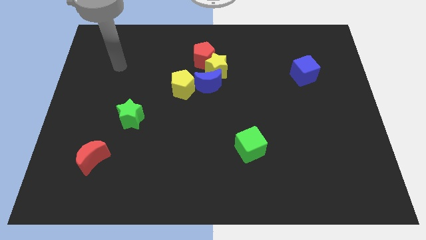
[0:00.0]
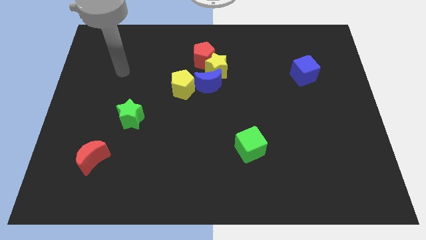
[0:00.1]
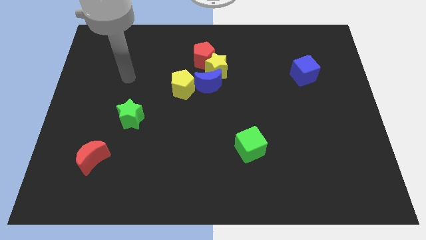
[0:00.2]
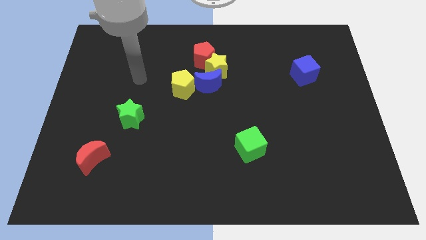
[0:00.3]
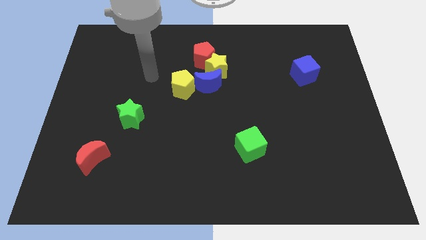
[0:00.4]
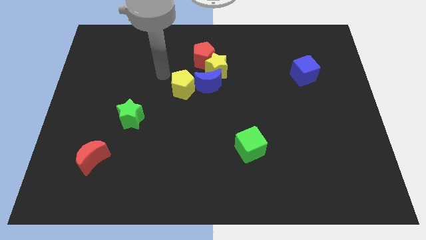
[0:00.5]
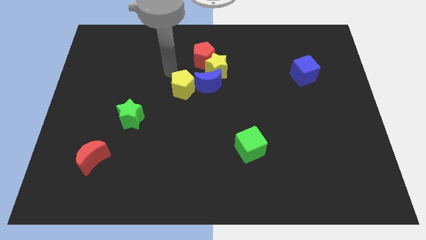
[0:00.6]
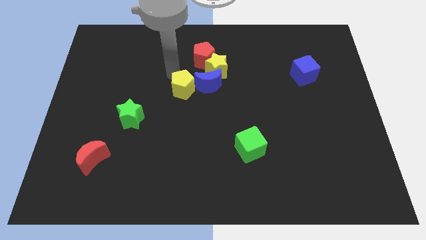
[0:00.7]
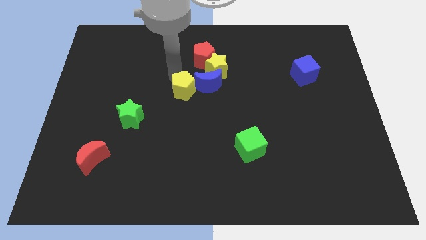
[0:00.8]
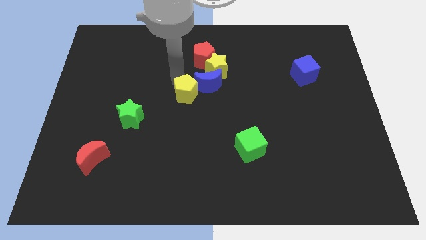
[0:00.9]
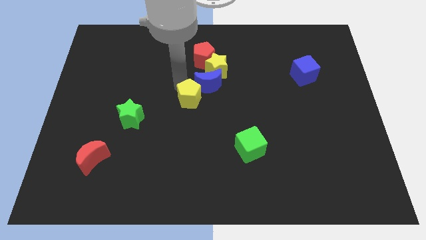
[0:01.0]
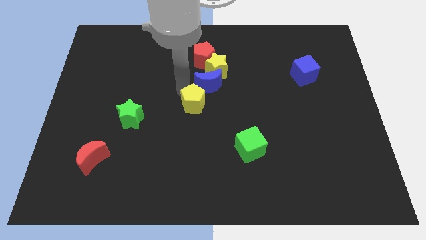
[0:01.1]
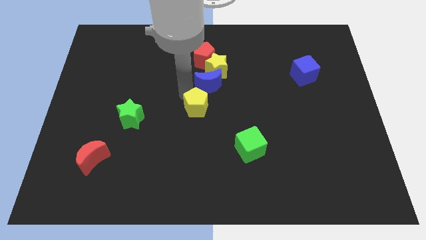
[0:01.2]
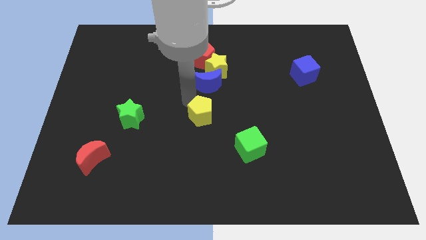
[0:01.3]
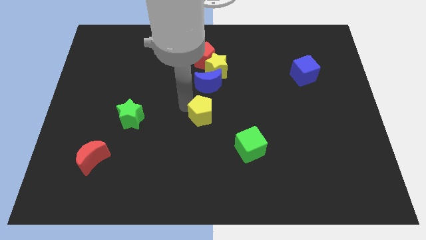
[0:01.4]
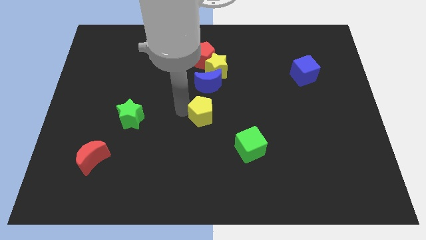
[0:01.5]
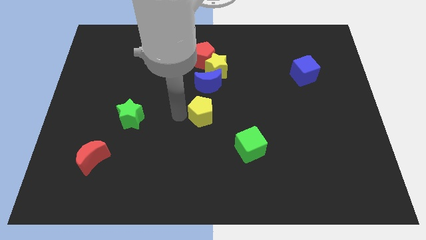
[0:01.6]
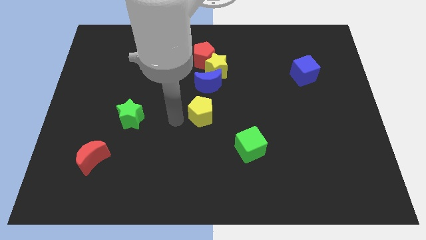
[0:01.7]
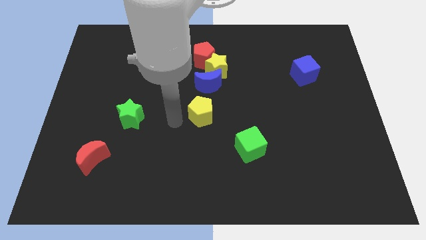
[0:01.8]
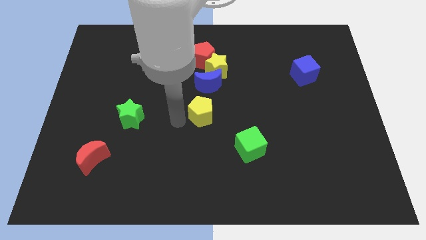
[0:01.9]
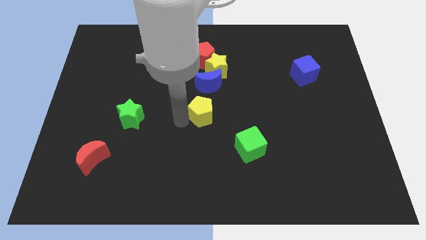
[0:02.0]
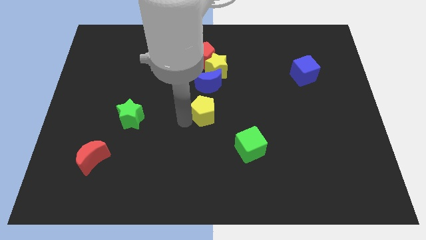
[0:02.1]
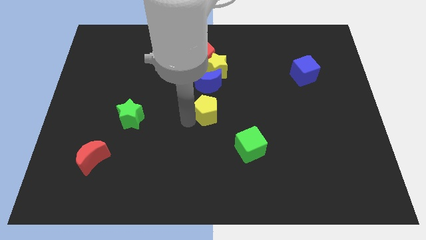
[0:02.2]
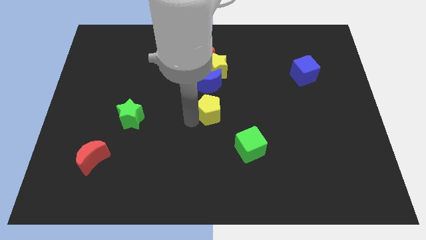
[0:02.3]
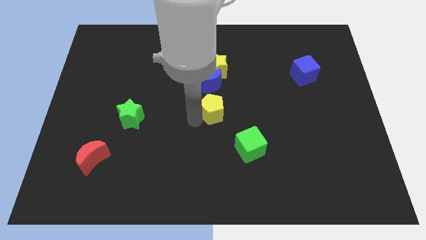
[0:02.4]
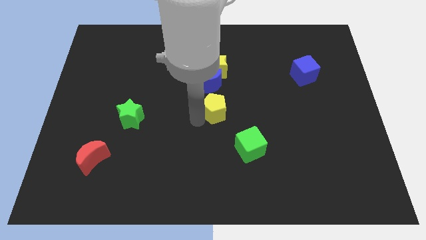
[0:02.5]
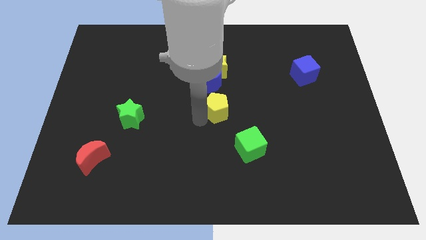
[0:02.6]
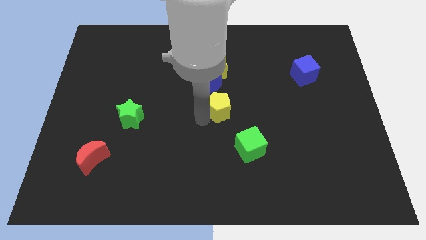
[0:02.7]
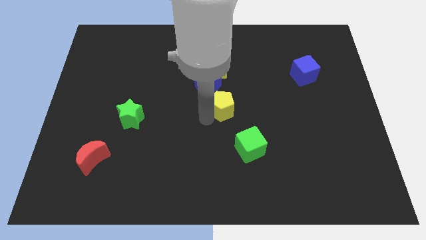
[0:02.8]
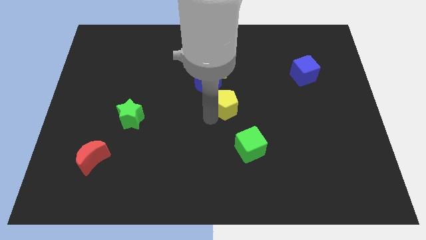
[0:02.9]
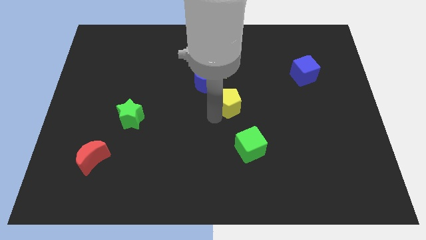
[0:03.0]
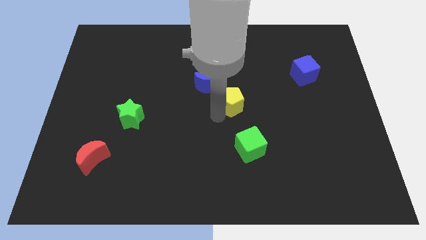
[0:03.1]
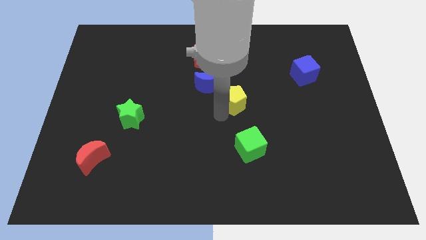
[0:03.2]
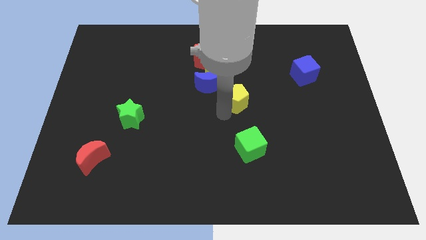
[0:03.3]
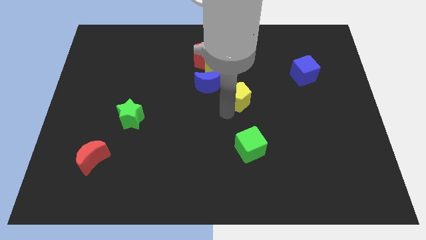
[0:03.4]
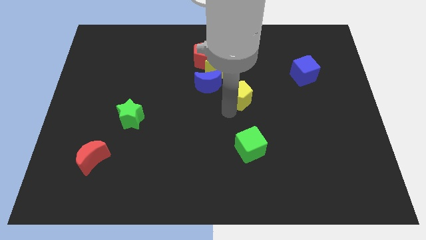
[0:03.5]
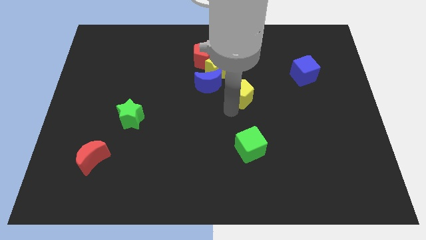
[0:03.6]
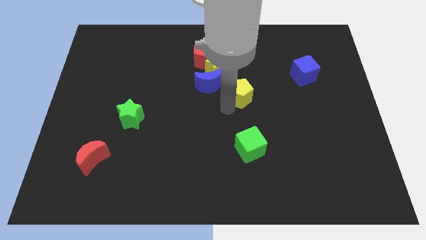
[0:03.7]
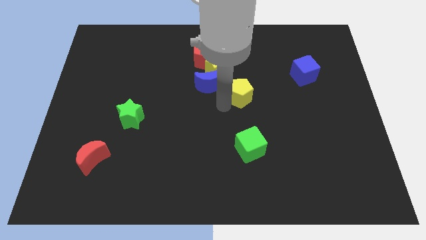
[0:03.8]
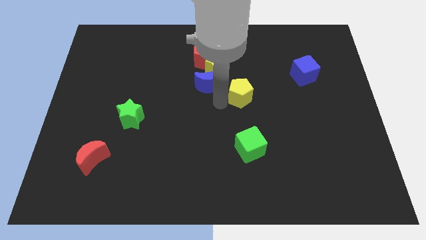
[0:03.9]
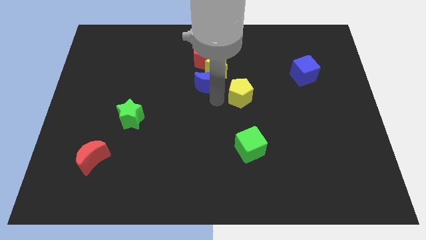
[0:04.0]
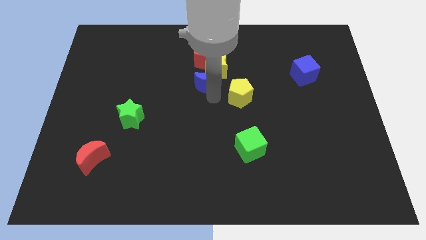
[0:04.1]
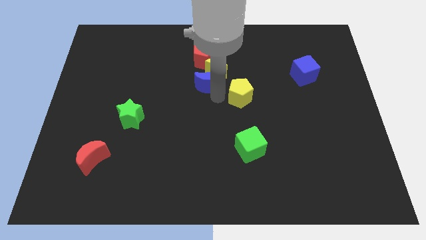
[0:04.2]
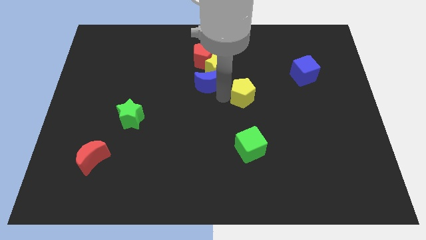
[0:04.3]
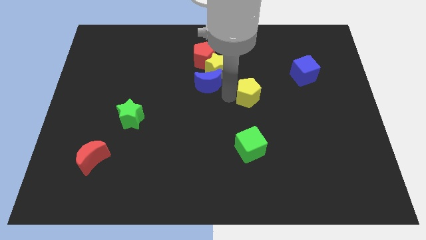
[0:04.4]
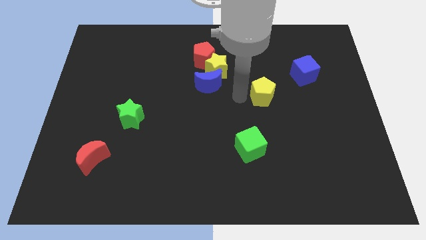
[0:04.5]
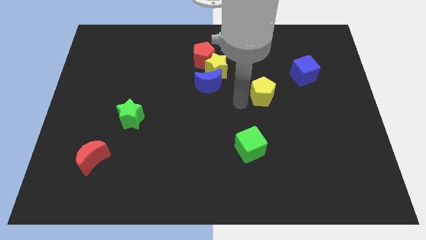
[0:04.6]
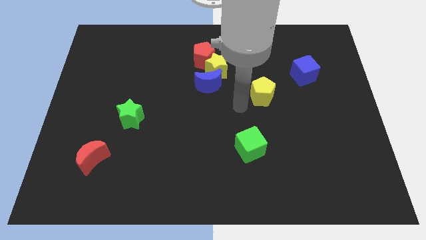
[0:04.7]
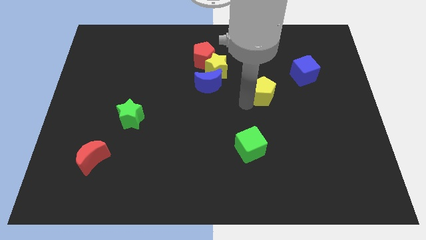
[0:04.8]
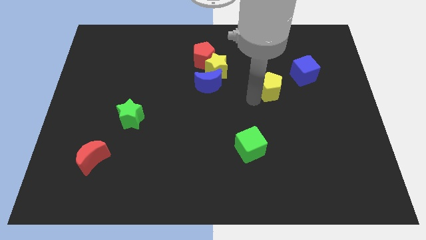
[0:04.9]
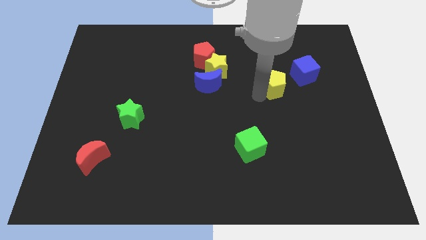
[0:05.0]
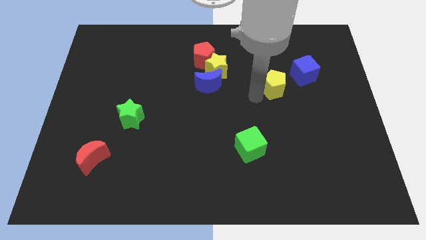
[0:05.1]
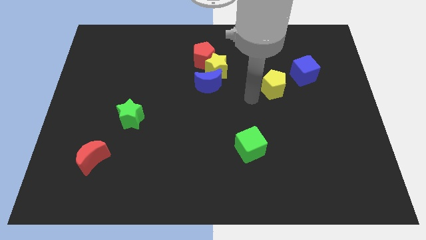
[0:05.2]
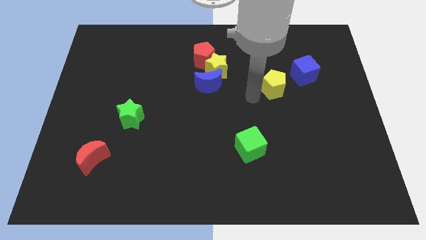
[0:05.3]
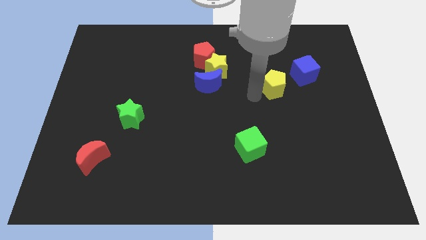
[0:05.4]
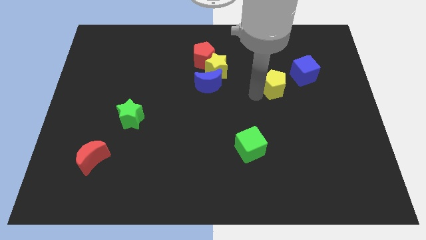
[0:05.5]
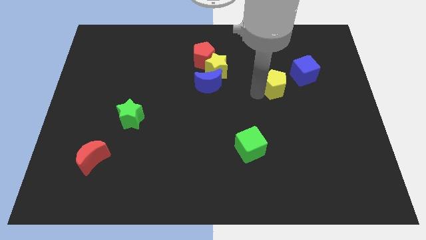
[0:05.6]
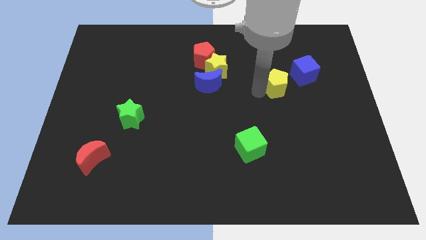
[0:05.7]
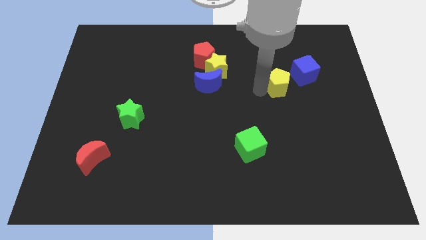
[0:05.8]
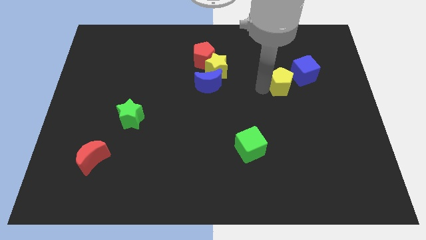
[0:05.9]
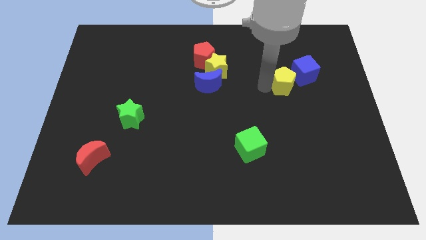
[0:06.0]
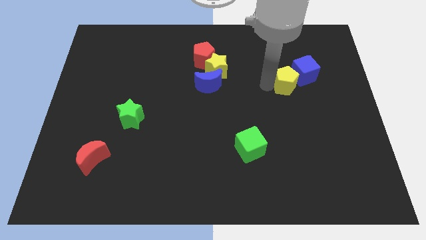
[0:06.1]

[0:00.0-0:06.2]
move the yellow pentagon next to the blue cube

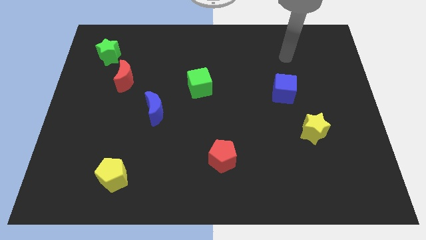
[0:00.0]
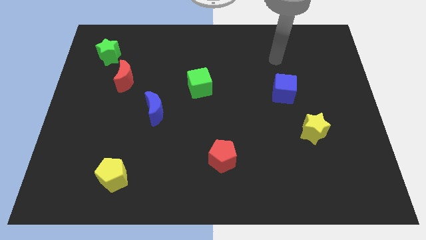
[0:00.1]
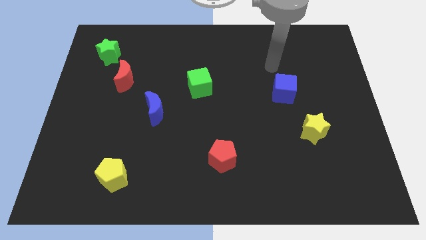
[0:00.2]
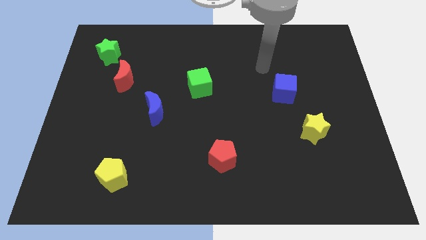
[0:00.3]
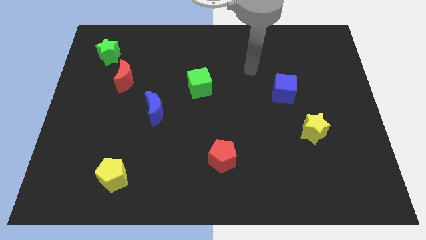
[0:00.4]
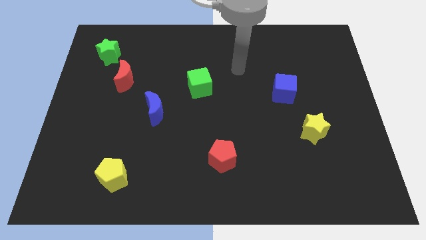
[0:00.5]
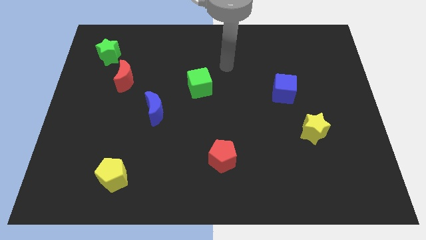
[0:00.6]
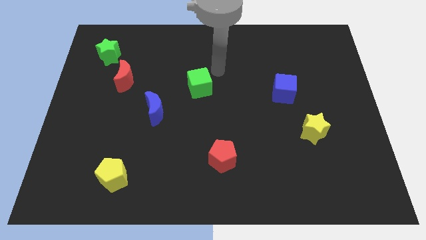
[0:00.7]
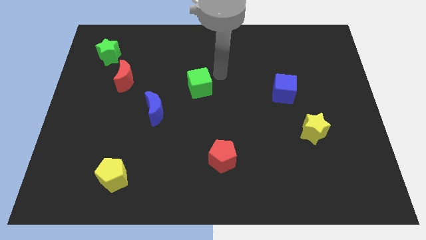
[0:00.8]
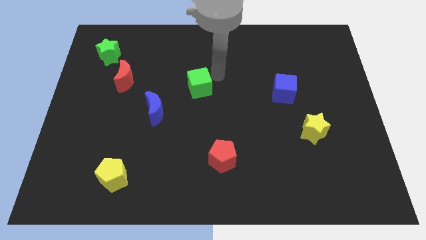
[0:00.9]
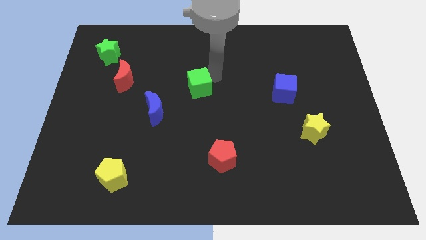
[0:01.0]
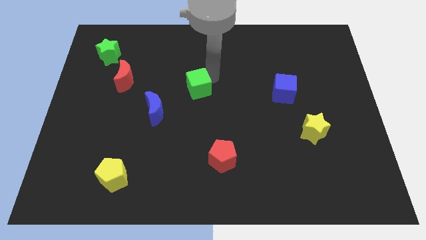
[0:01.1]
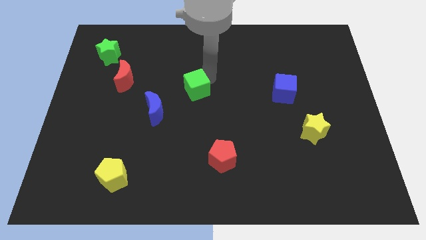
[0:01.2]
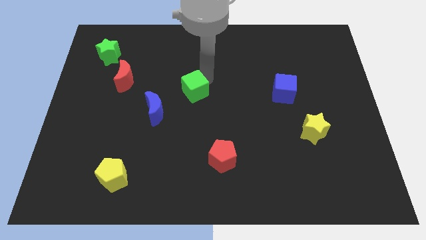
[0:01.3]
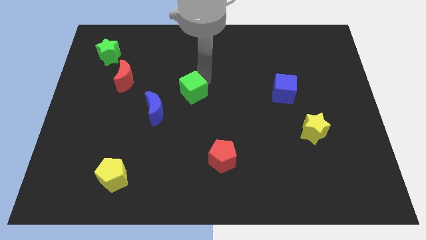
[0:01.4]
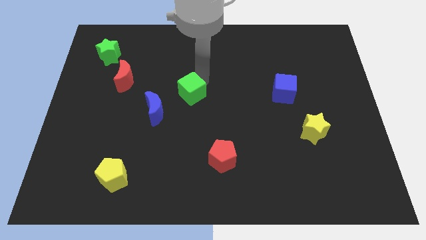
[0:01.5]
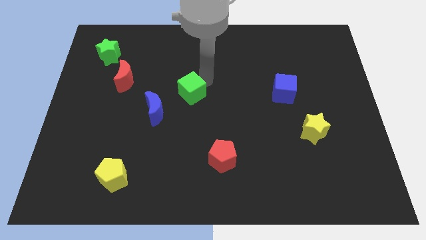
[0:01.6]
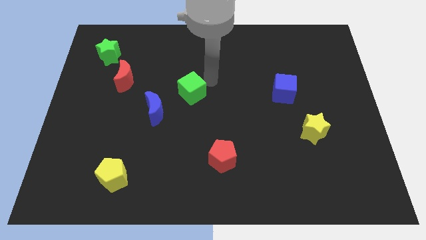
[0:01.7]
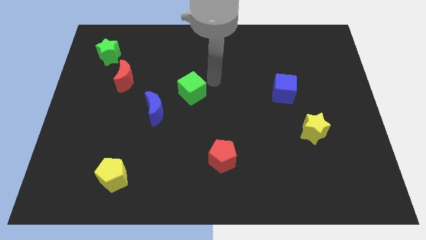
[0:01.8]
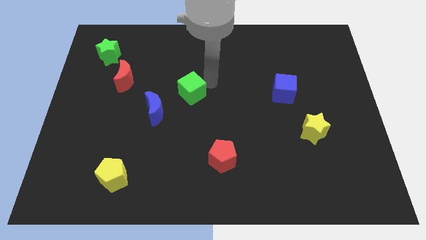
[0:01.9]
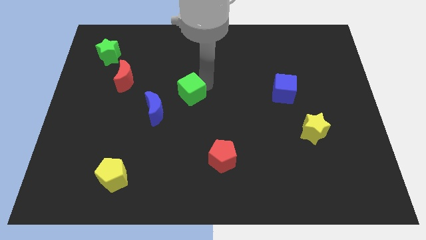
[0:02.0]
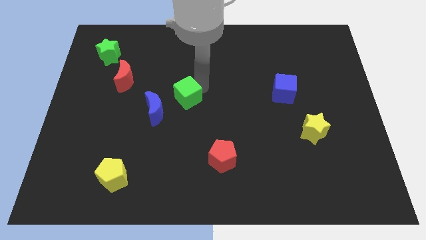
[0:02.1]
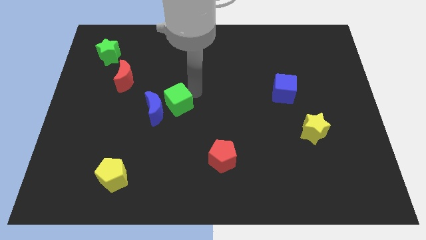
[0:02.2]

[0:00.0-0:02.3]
slide the green cube to the blue moon
